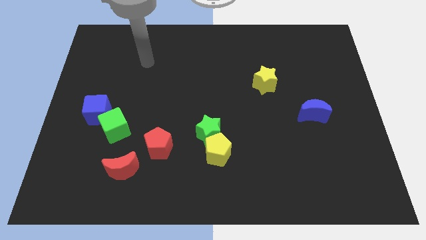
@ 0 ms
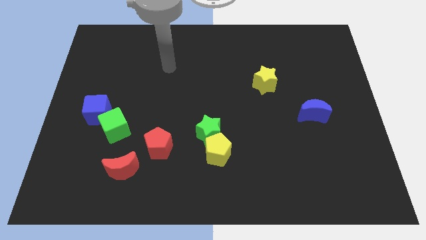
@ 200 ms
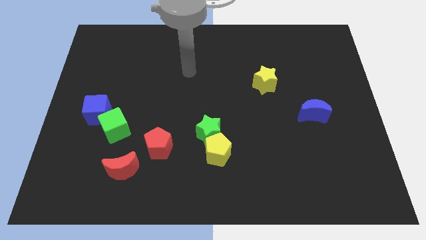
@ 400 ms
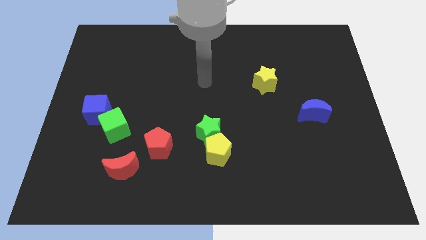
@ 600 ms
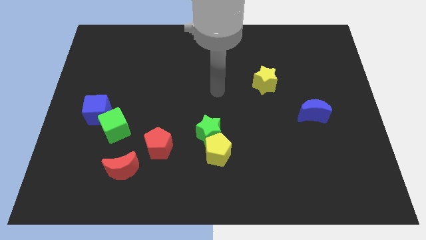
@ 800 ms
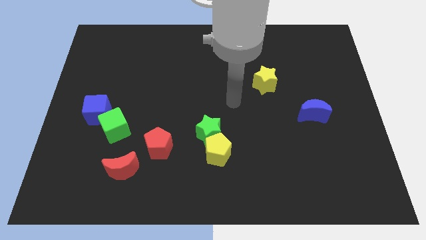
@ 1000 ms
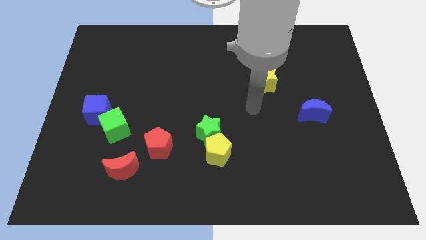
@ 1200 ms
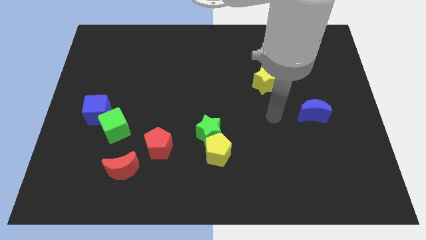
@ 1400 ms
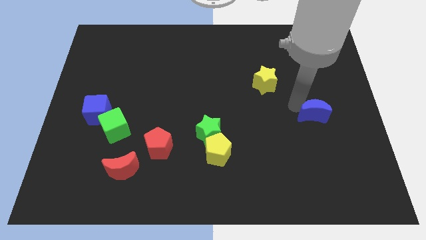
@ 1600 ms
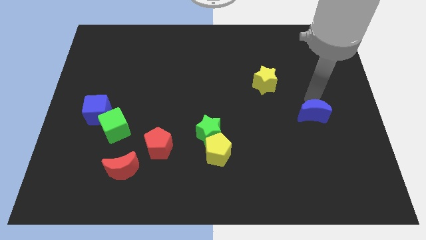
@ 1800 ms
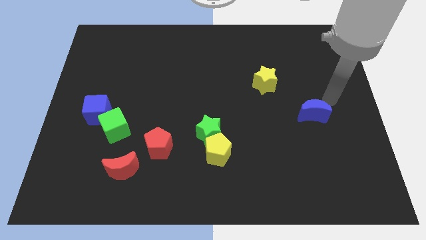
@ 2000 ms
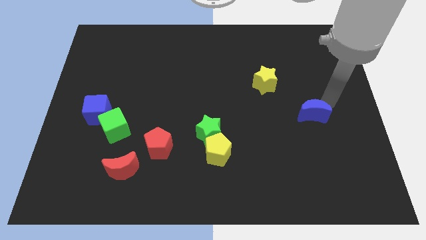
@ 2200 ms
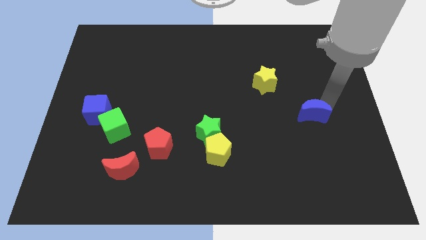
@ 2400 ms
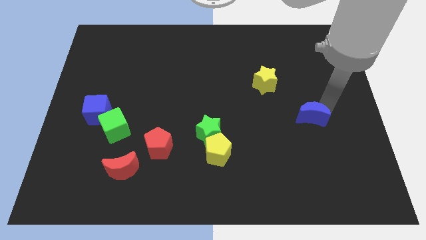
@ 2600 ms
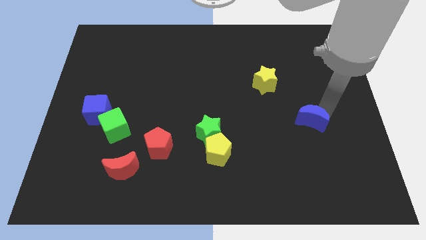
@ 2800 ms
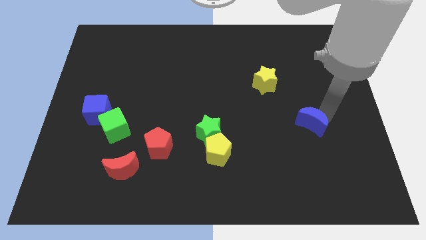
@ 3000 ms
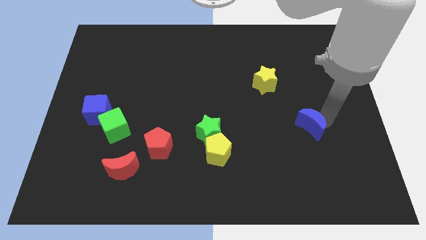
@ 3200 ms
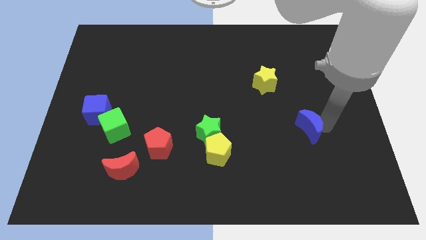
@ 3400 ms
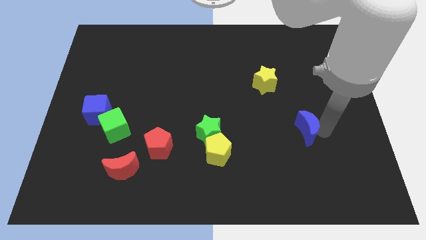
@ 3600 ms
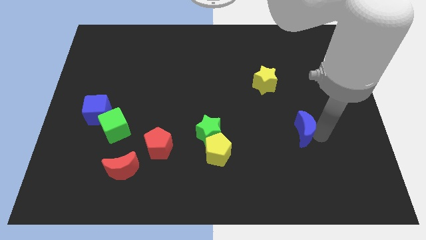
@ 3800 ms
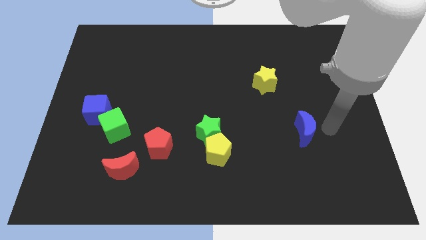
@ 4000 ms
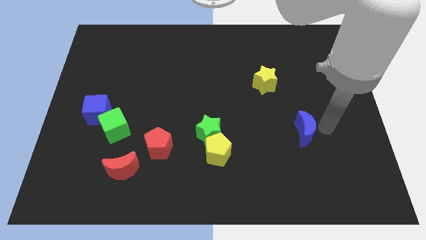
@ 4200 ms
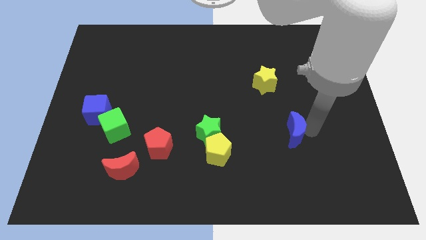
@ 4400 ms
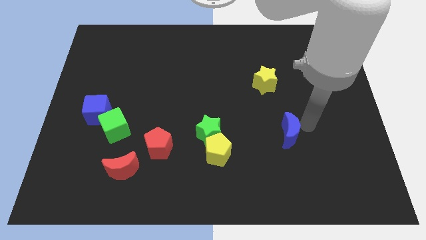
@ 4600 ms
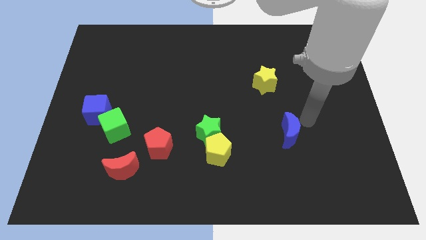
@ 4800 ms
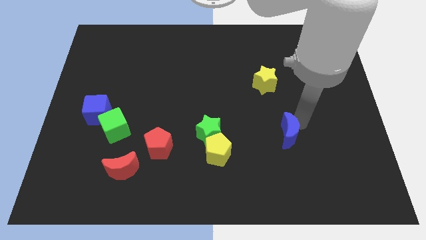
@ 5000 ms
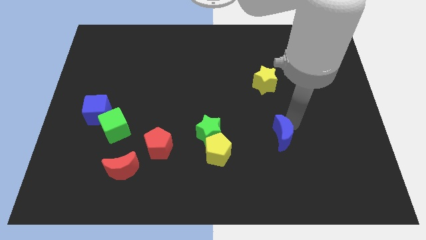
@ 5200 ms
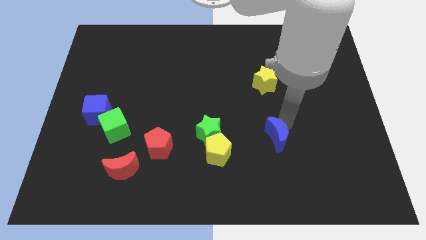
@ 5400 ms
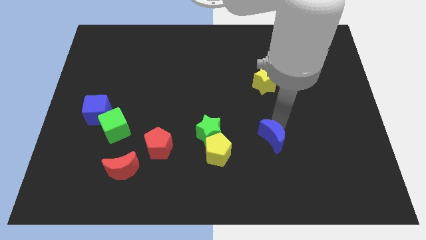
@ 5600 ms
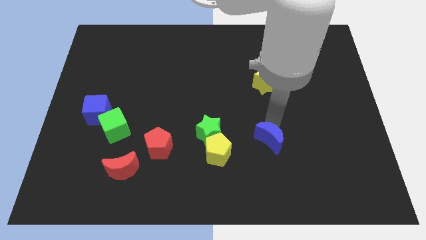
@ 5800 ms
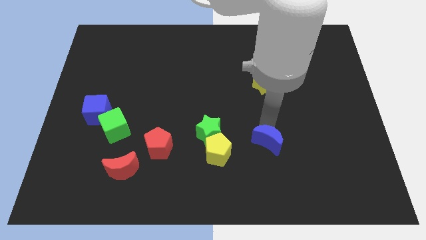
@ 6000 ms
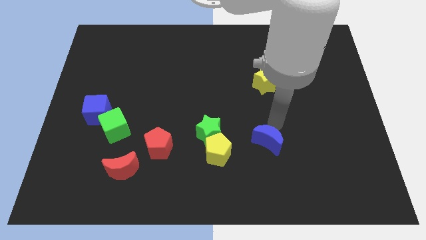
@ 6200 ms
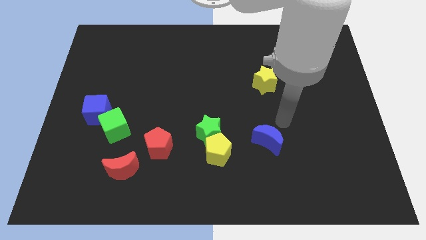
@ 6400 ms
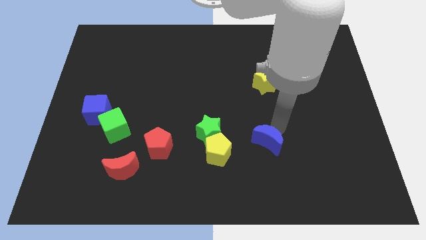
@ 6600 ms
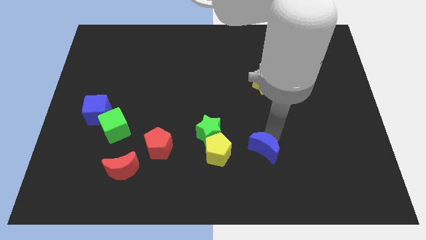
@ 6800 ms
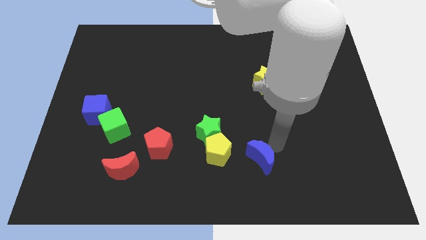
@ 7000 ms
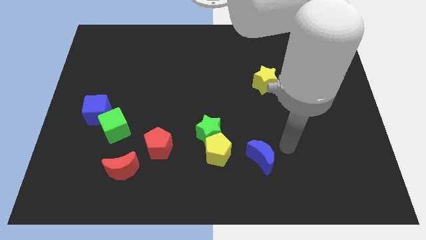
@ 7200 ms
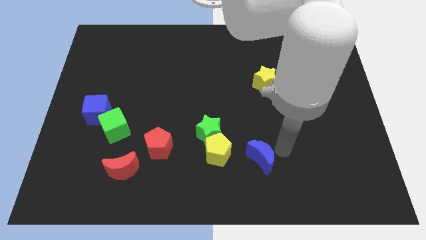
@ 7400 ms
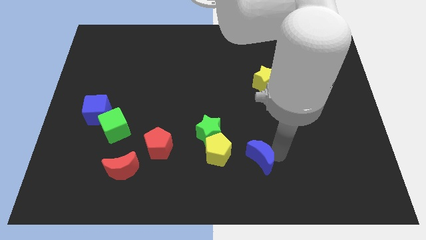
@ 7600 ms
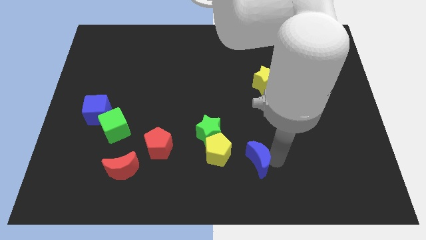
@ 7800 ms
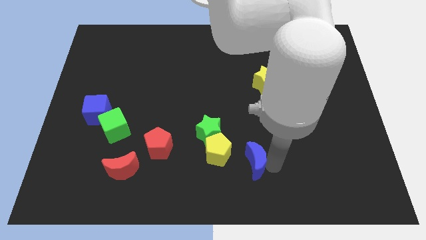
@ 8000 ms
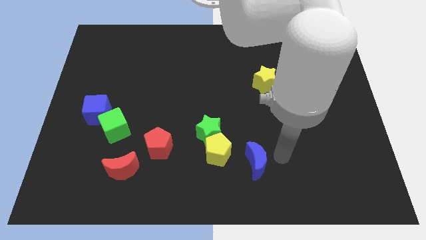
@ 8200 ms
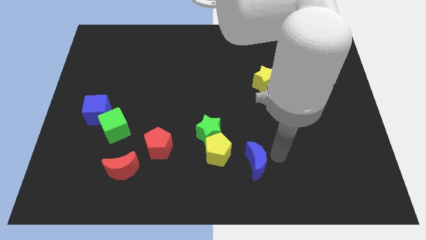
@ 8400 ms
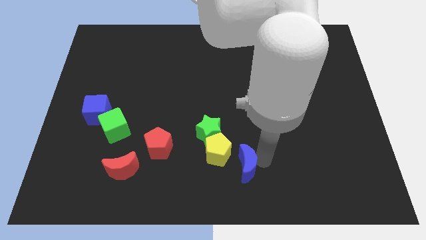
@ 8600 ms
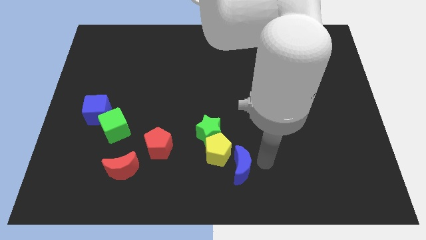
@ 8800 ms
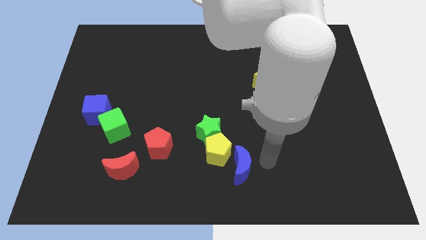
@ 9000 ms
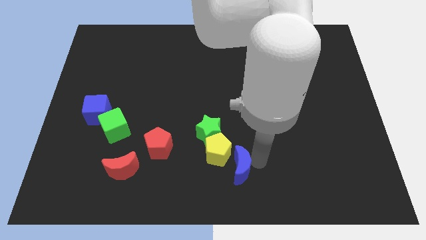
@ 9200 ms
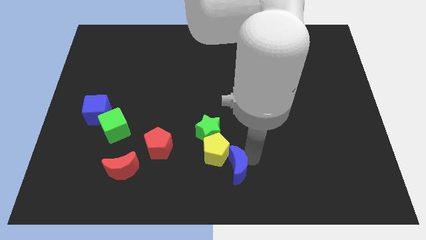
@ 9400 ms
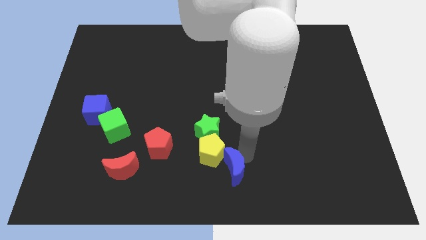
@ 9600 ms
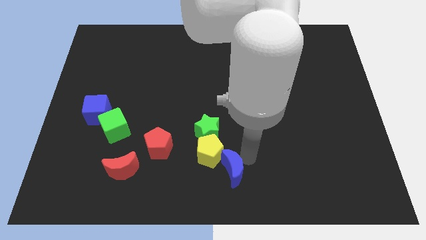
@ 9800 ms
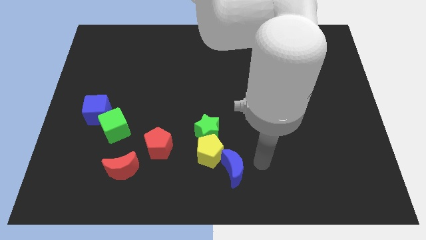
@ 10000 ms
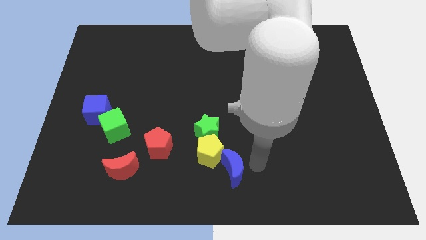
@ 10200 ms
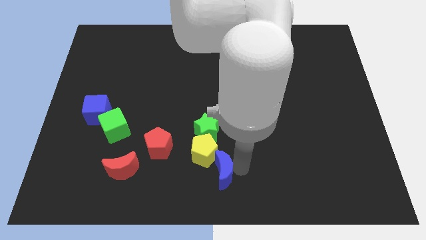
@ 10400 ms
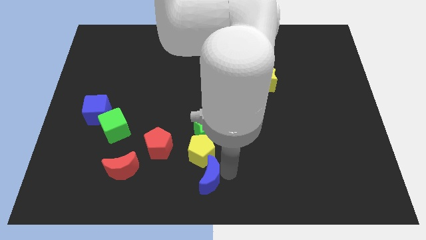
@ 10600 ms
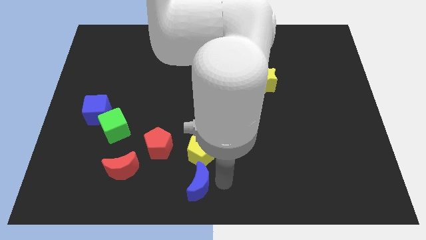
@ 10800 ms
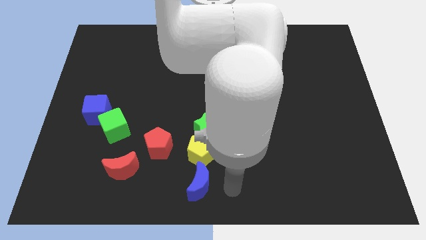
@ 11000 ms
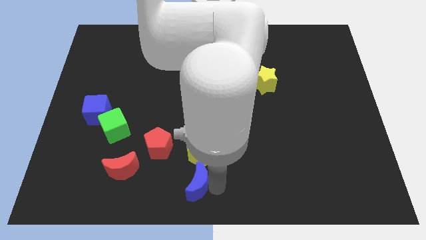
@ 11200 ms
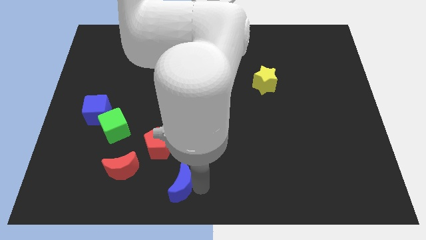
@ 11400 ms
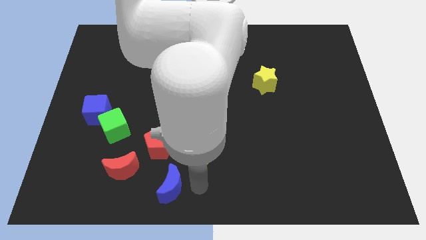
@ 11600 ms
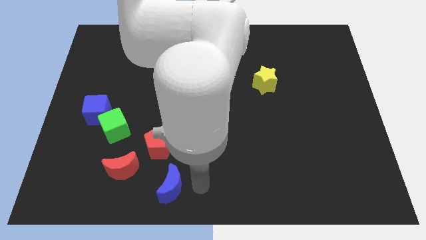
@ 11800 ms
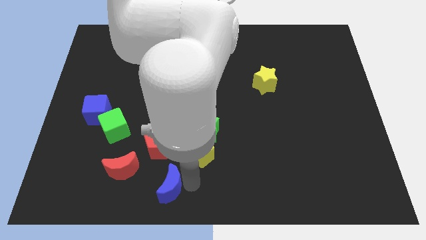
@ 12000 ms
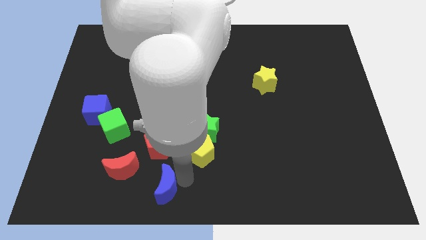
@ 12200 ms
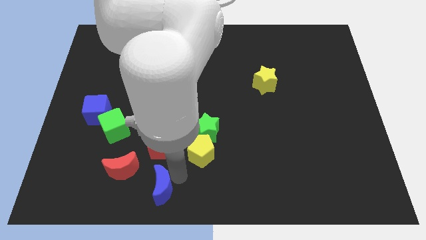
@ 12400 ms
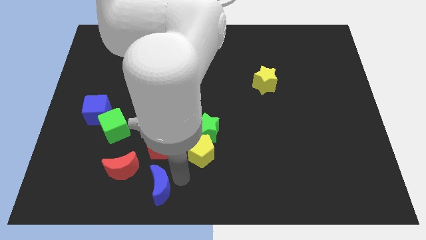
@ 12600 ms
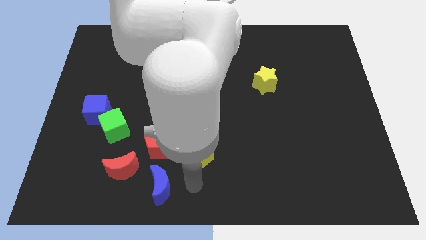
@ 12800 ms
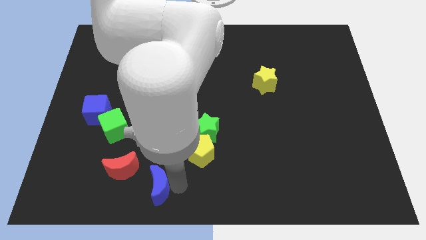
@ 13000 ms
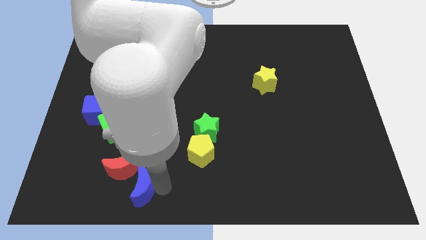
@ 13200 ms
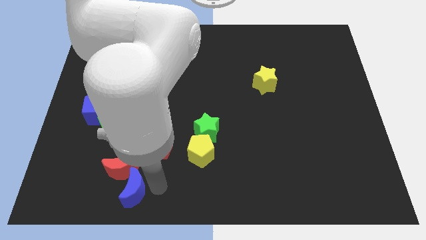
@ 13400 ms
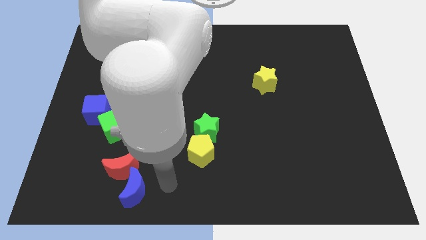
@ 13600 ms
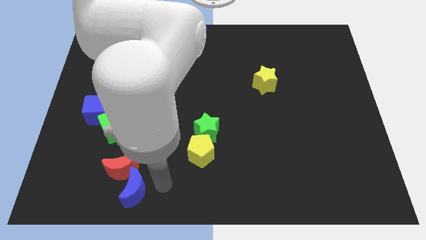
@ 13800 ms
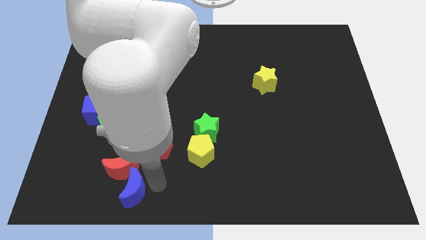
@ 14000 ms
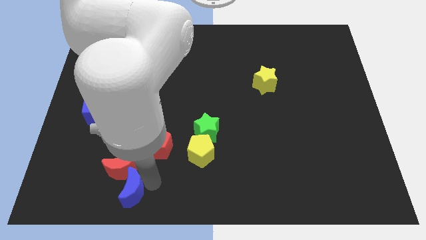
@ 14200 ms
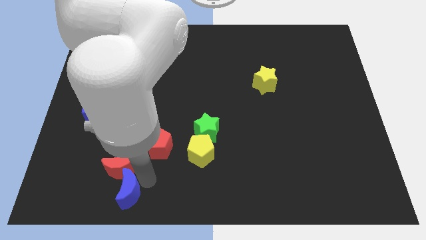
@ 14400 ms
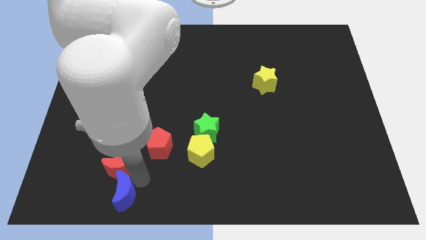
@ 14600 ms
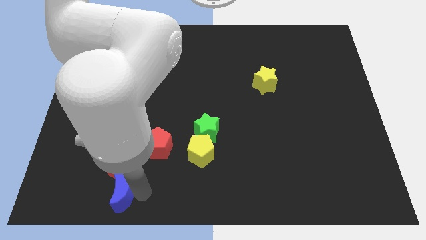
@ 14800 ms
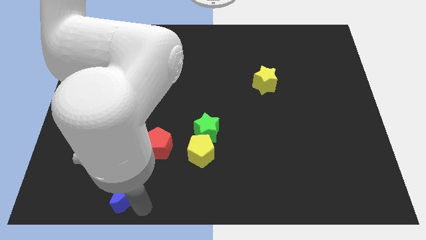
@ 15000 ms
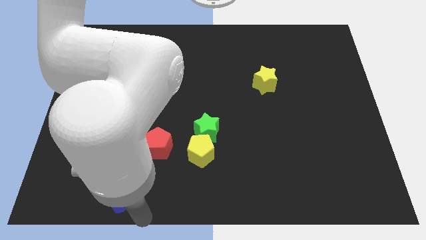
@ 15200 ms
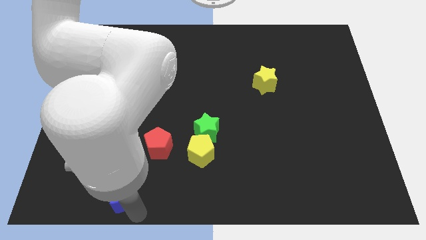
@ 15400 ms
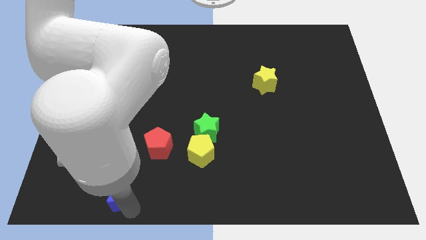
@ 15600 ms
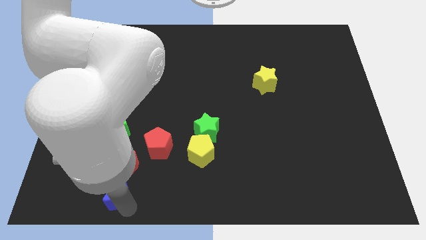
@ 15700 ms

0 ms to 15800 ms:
put the blue moon to the bottom of the green cube
